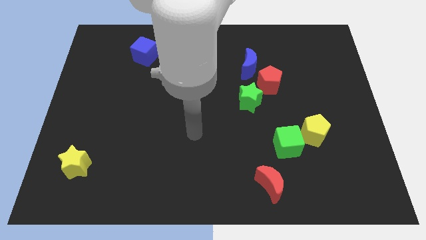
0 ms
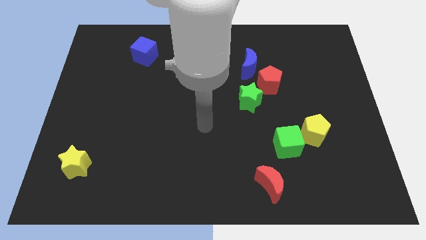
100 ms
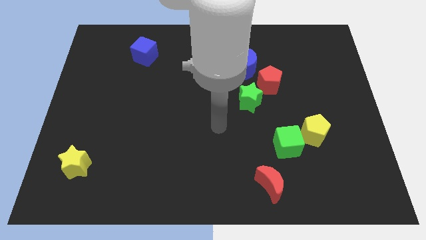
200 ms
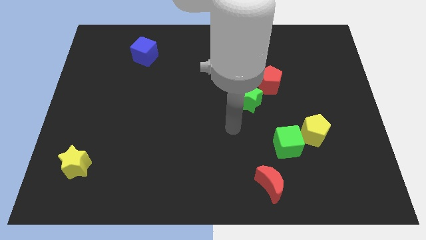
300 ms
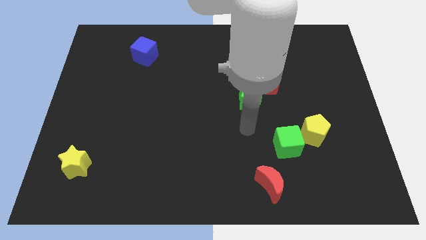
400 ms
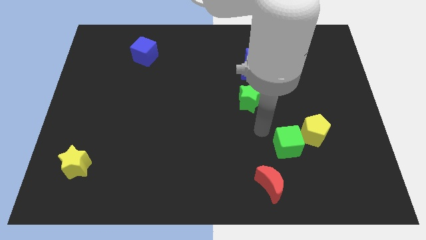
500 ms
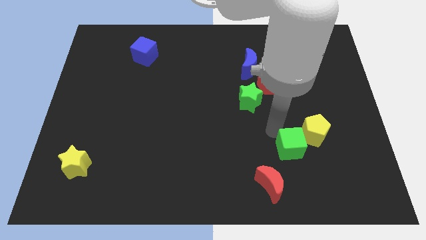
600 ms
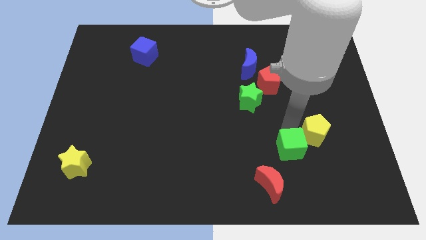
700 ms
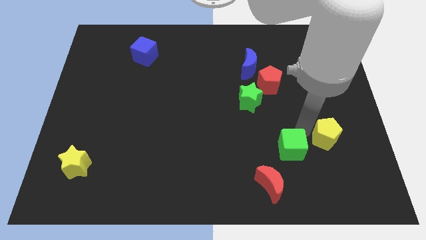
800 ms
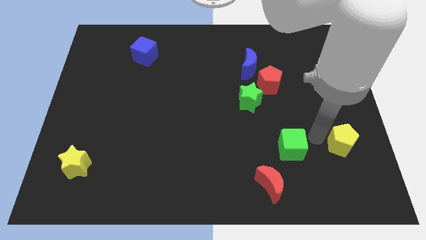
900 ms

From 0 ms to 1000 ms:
move the green cube away from the yellow pentagon

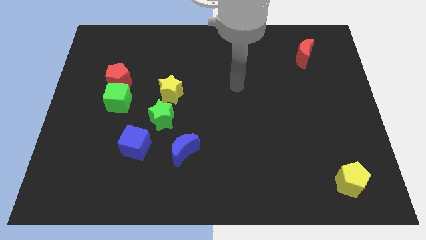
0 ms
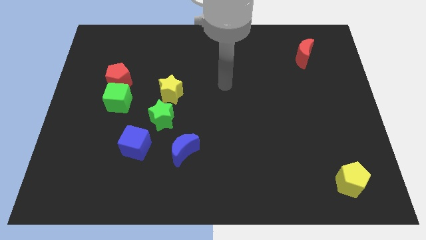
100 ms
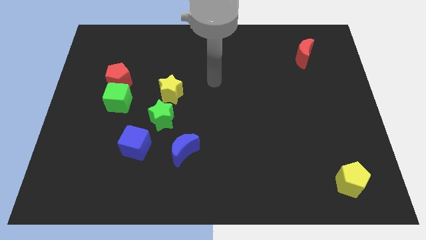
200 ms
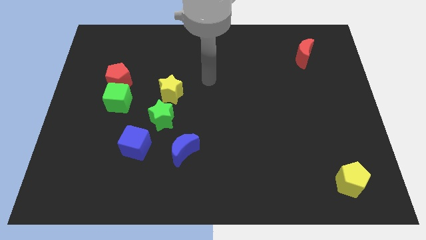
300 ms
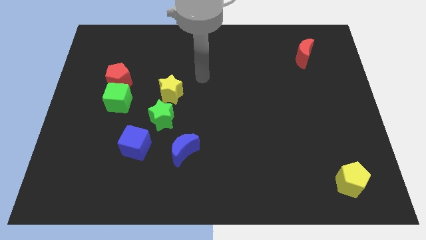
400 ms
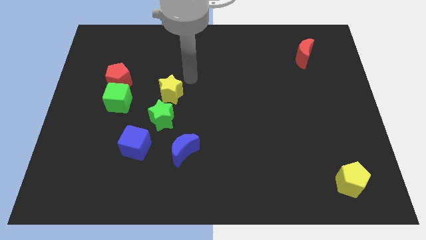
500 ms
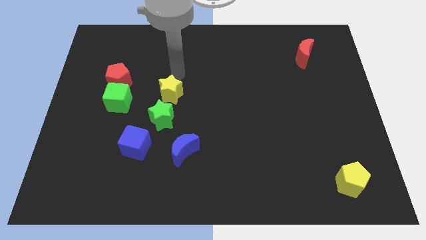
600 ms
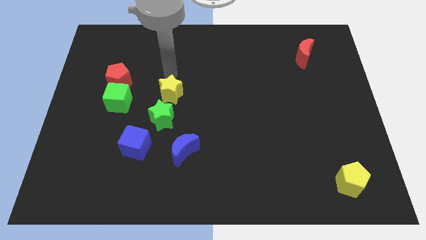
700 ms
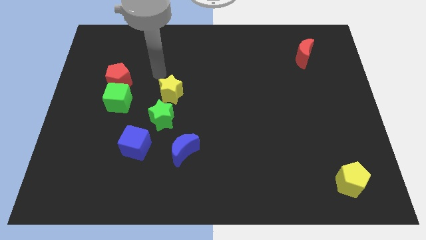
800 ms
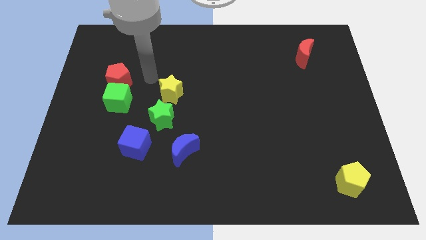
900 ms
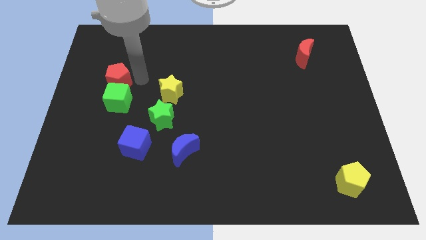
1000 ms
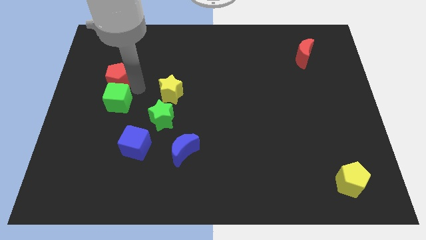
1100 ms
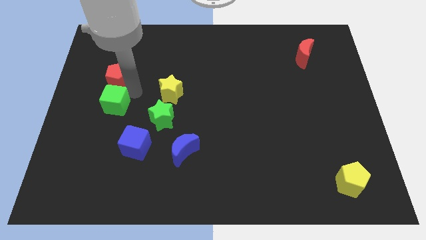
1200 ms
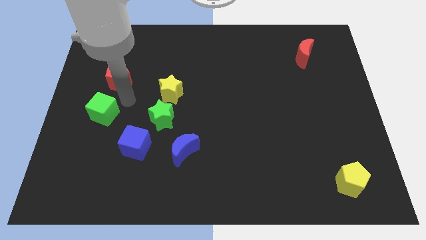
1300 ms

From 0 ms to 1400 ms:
move the red pentagon away from the green cube

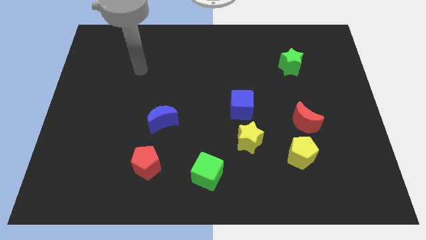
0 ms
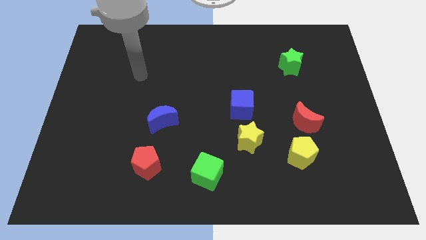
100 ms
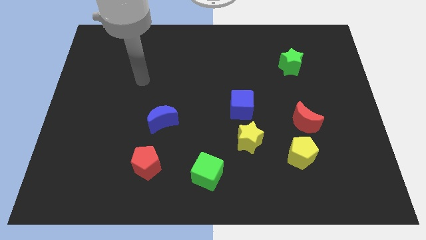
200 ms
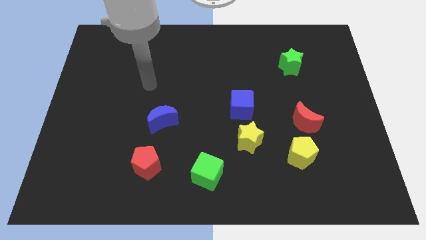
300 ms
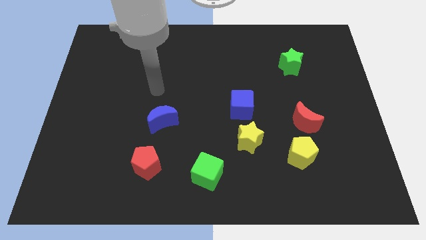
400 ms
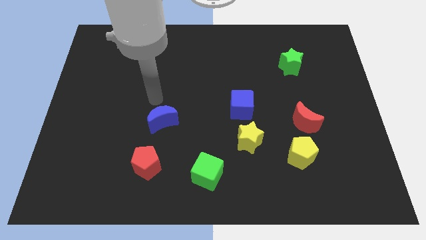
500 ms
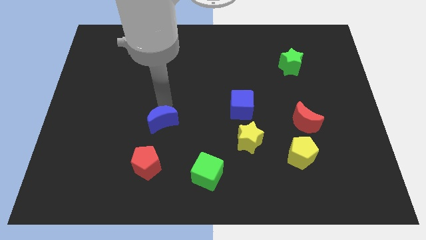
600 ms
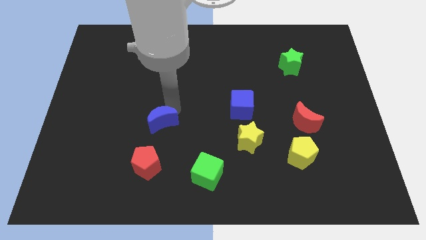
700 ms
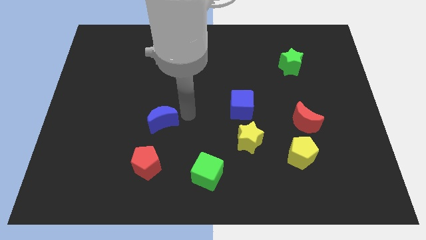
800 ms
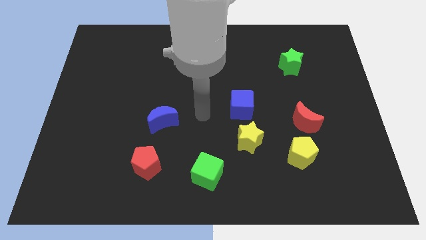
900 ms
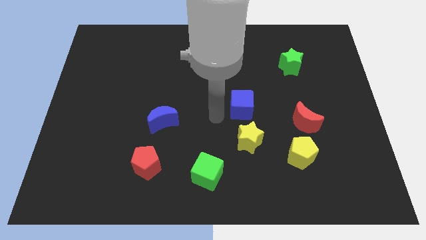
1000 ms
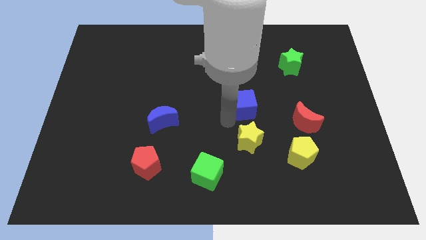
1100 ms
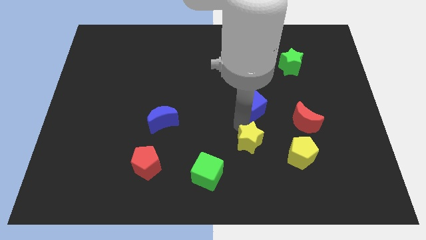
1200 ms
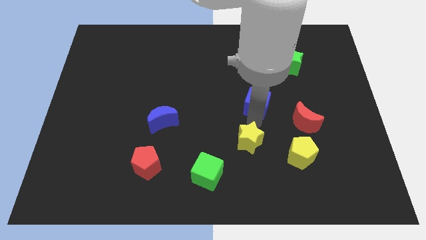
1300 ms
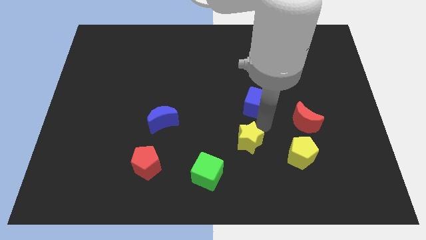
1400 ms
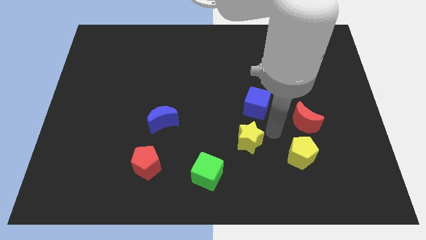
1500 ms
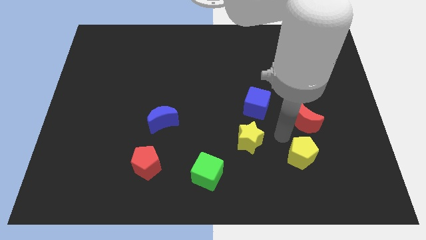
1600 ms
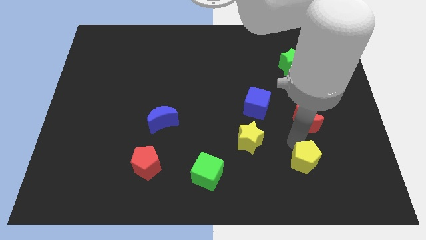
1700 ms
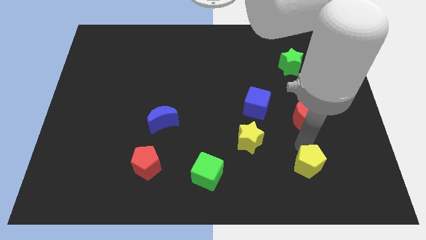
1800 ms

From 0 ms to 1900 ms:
move the red moon away from the yellow pentagon

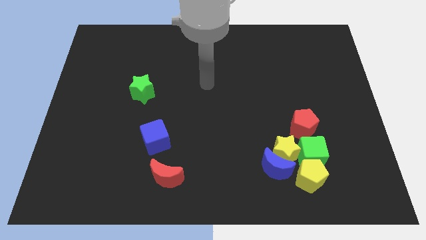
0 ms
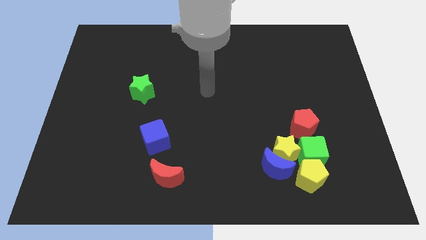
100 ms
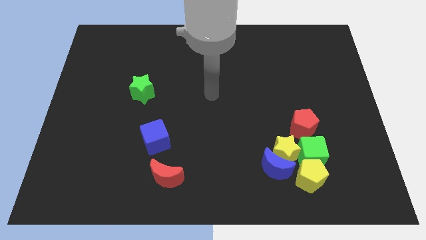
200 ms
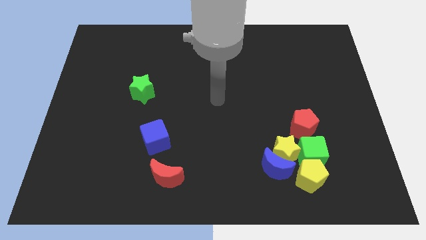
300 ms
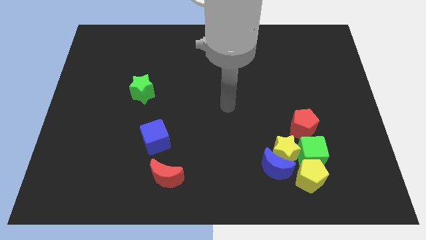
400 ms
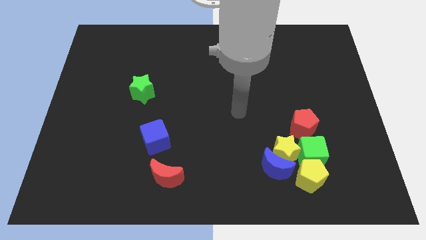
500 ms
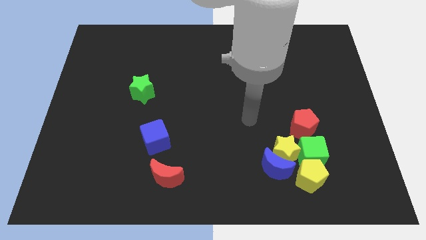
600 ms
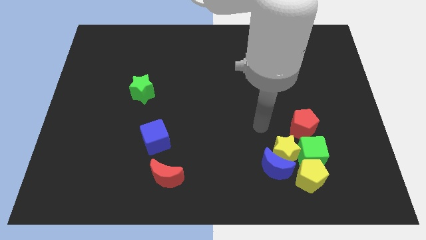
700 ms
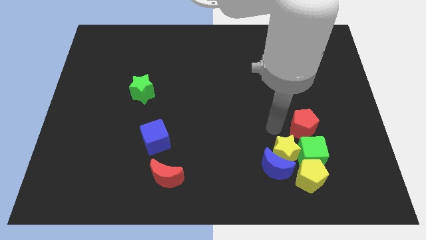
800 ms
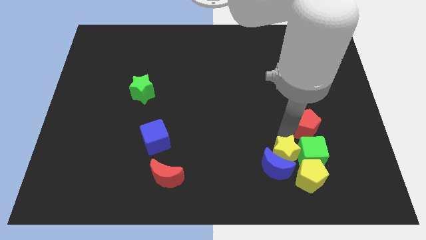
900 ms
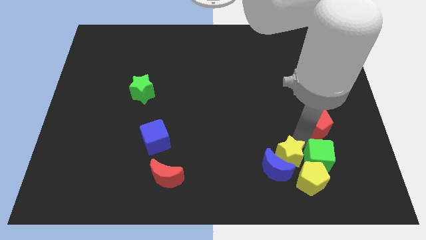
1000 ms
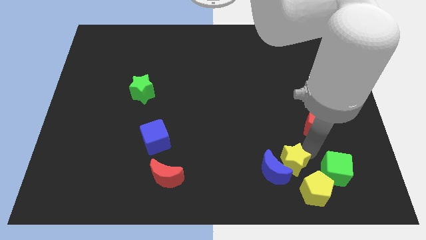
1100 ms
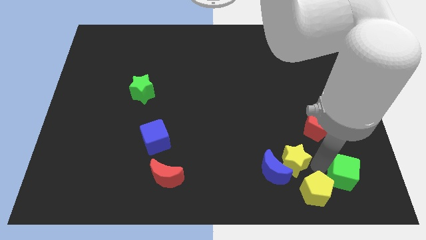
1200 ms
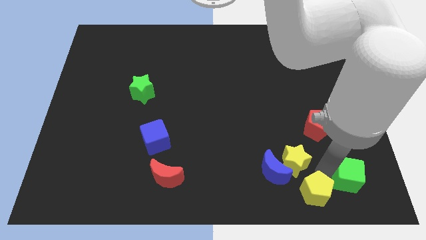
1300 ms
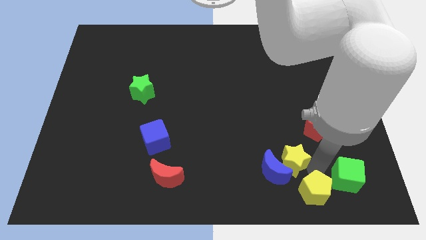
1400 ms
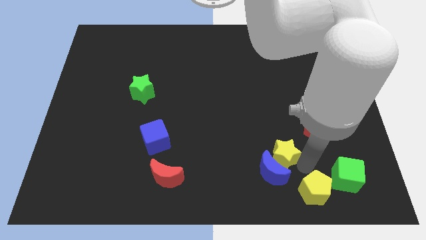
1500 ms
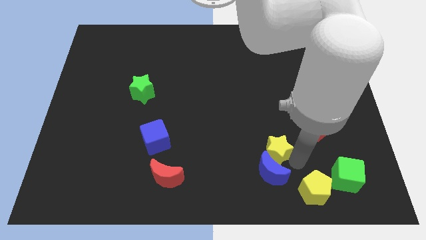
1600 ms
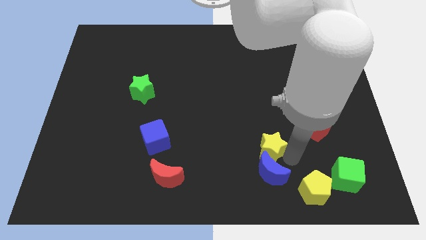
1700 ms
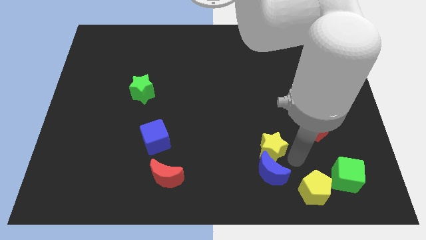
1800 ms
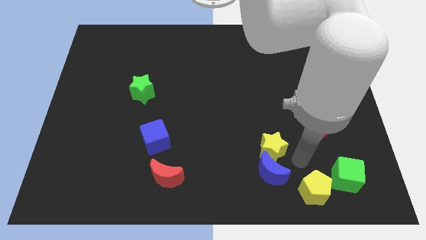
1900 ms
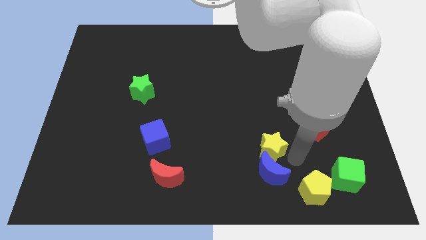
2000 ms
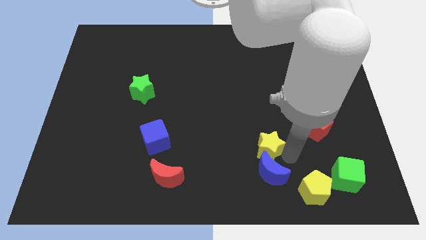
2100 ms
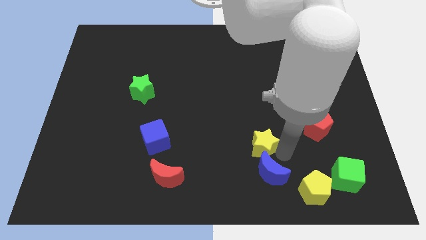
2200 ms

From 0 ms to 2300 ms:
separate the yellow star from the group

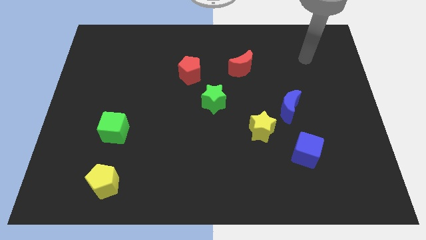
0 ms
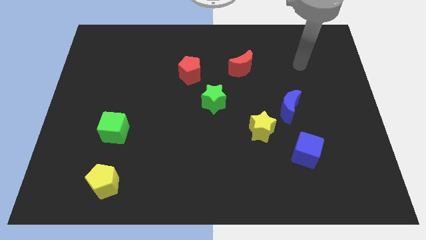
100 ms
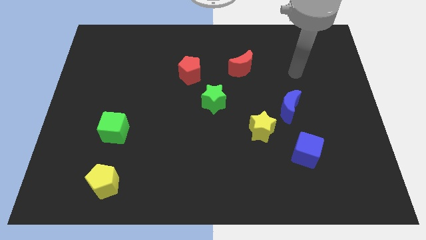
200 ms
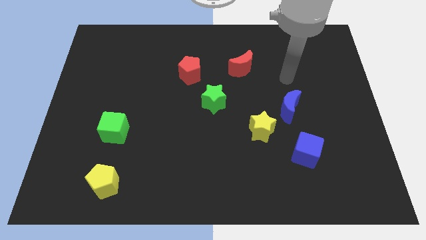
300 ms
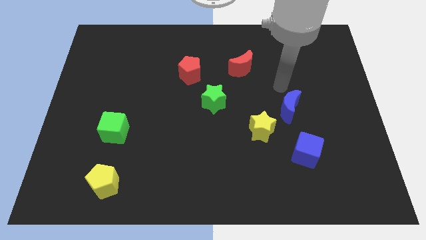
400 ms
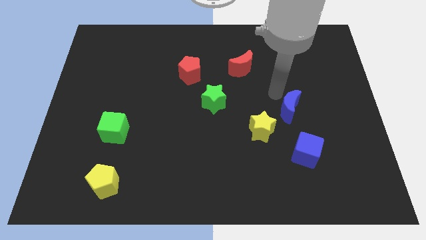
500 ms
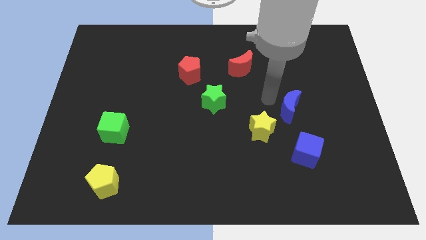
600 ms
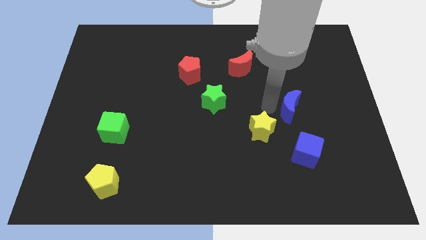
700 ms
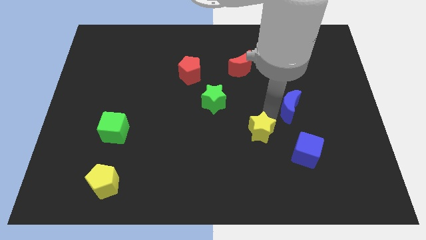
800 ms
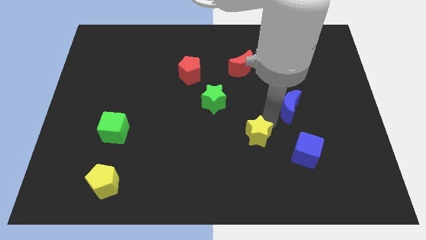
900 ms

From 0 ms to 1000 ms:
separate the blue moon from the yellow star

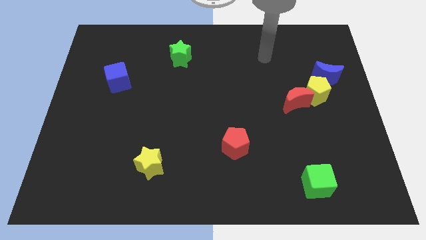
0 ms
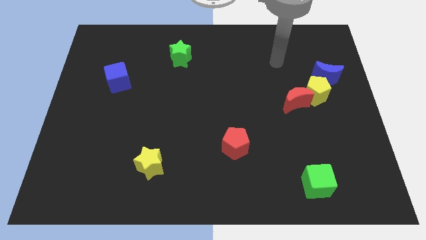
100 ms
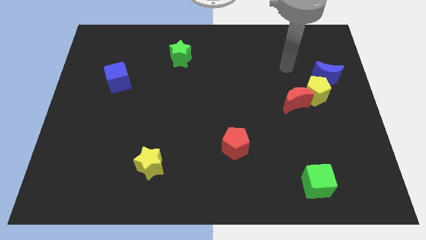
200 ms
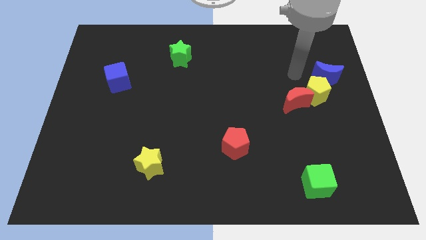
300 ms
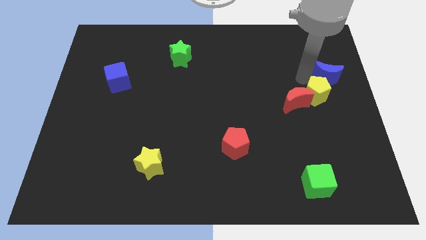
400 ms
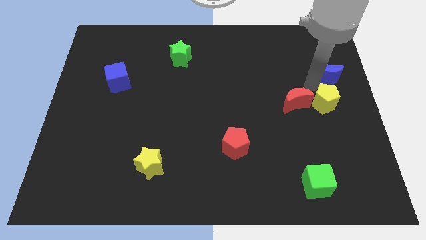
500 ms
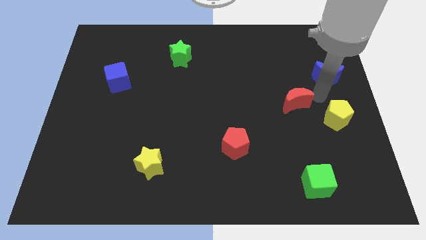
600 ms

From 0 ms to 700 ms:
pull the red moon apart from the yellow pentagon

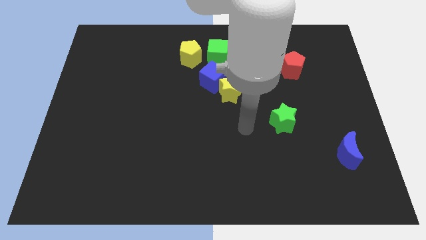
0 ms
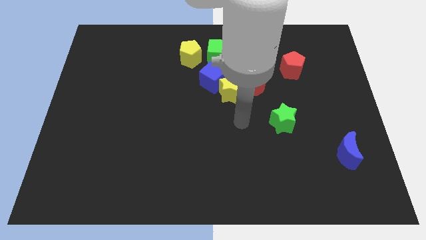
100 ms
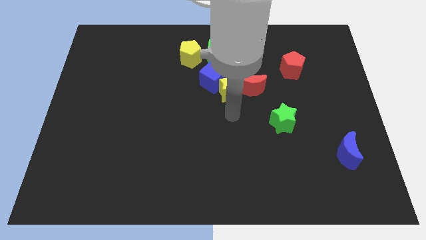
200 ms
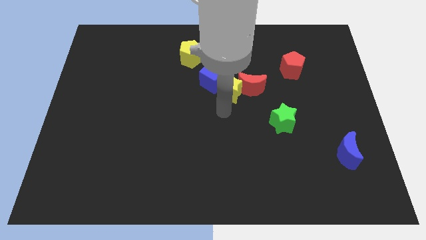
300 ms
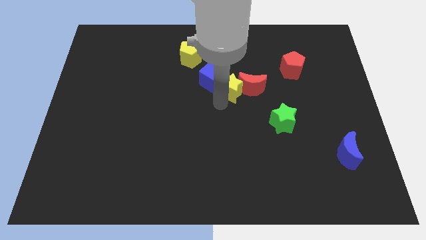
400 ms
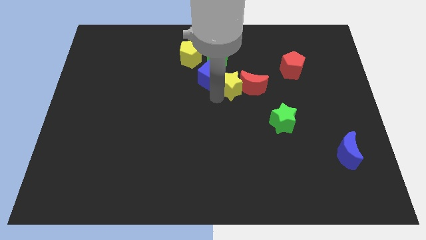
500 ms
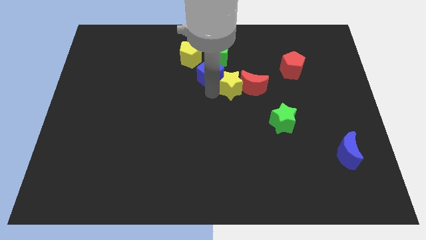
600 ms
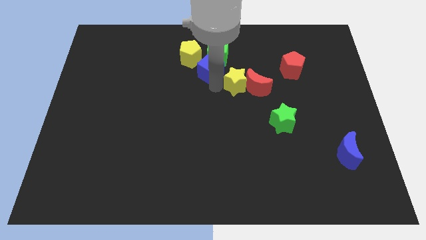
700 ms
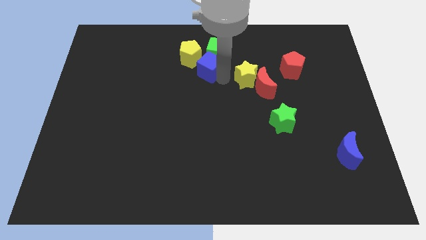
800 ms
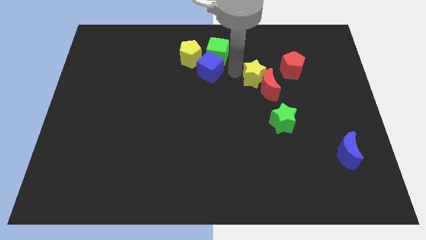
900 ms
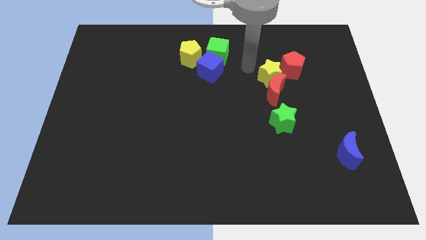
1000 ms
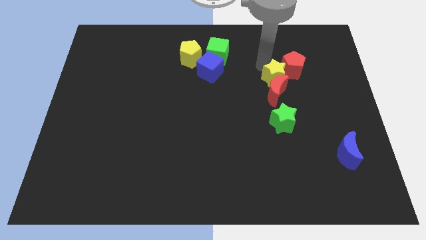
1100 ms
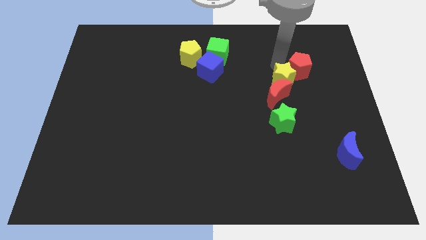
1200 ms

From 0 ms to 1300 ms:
separate the yellow star from the red moon and blue cube
